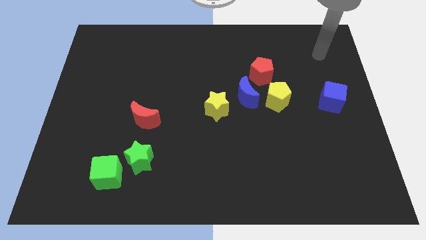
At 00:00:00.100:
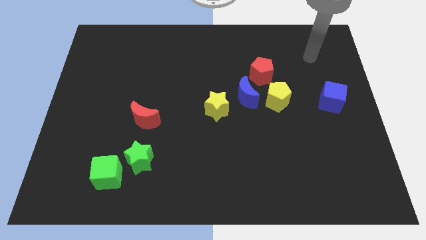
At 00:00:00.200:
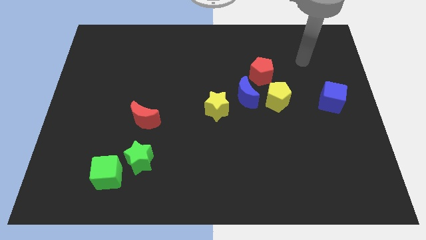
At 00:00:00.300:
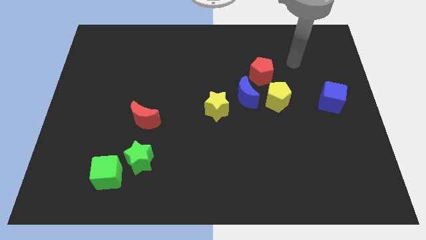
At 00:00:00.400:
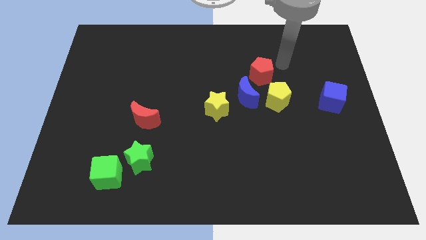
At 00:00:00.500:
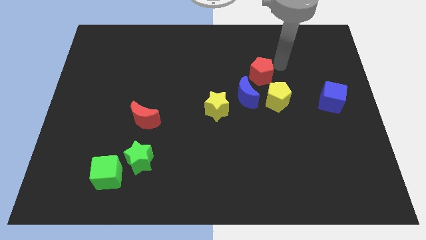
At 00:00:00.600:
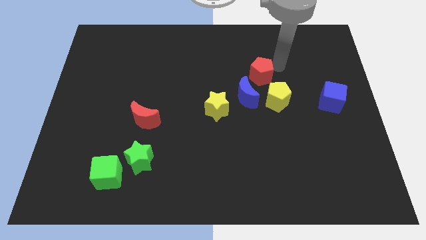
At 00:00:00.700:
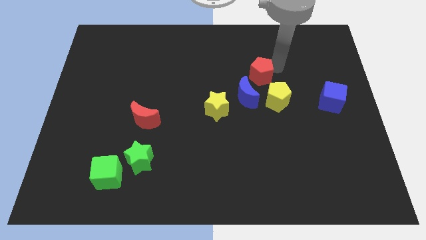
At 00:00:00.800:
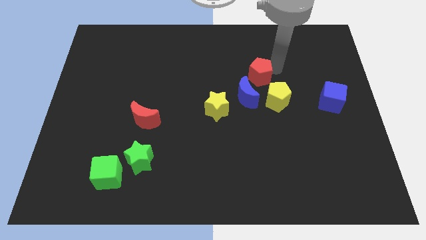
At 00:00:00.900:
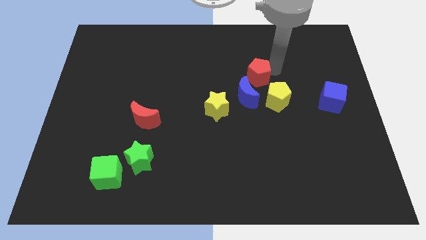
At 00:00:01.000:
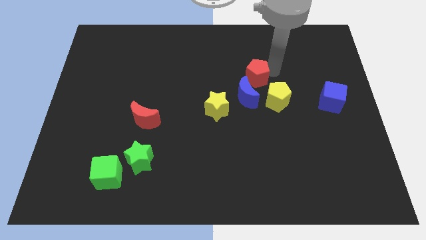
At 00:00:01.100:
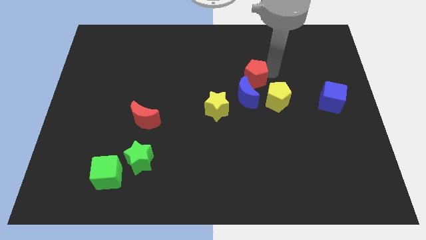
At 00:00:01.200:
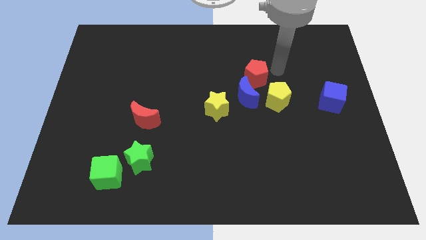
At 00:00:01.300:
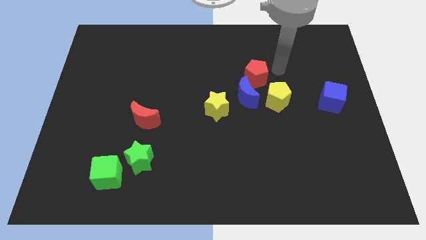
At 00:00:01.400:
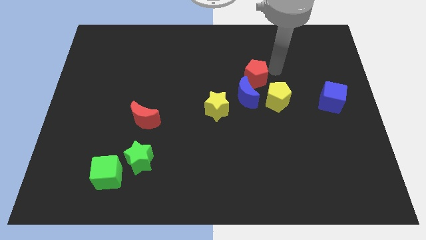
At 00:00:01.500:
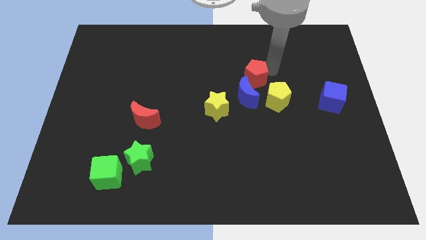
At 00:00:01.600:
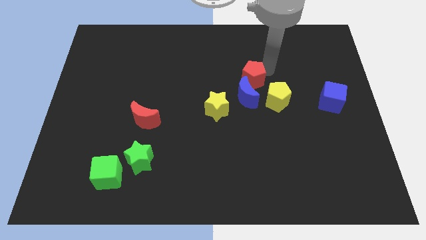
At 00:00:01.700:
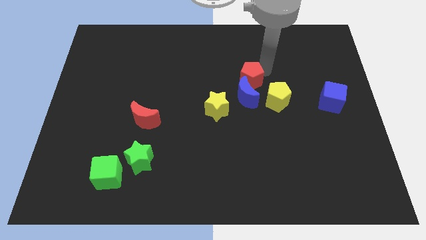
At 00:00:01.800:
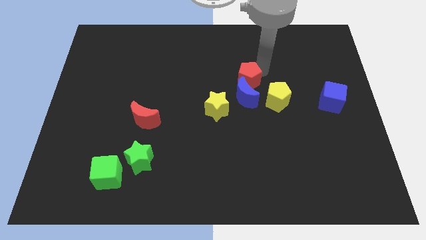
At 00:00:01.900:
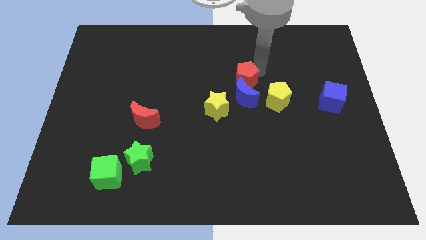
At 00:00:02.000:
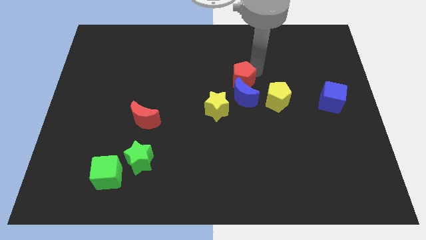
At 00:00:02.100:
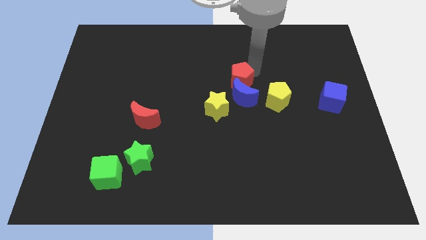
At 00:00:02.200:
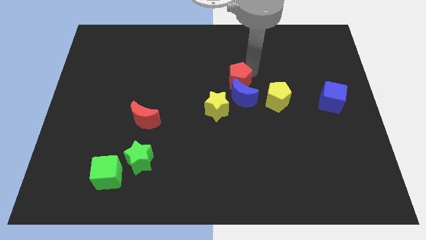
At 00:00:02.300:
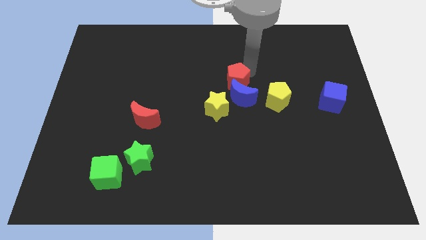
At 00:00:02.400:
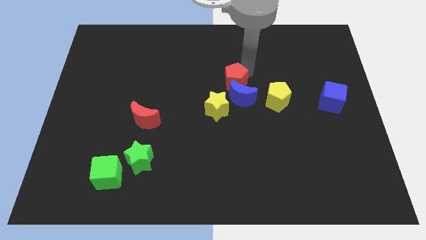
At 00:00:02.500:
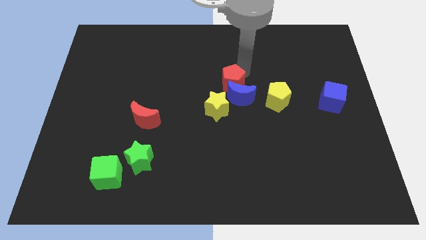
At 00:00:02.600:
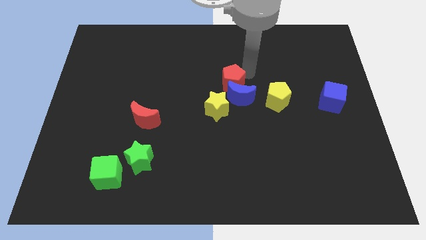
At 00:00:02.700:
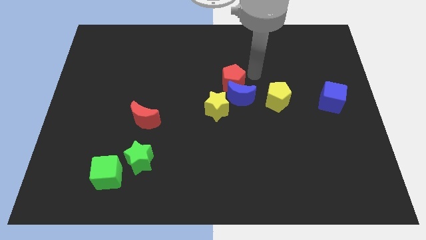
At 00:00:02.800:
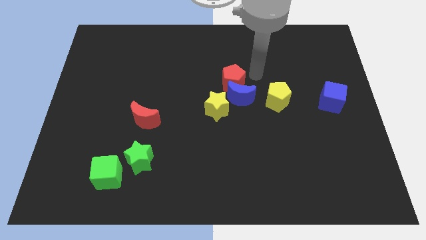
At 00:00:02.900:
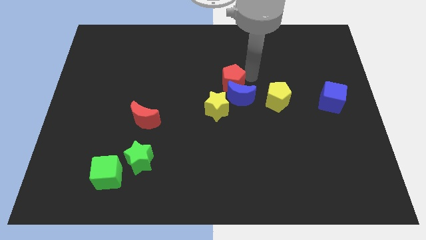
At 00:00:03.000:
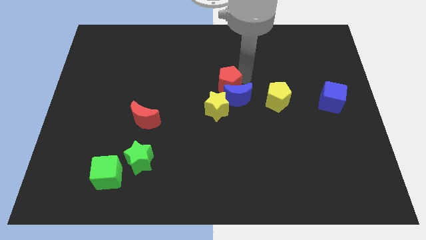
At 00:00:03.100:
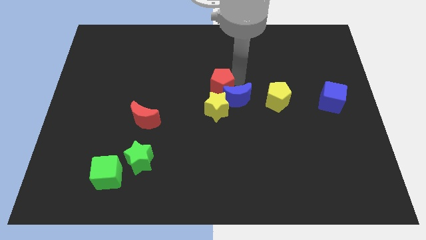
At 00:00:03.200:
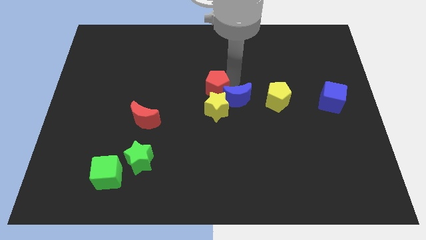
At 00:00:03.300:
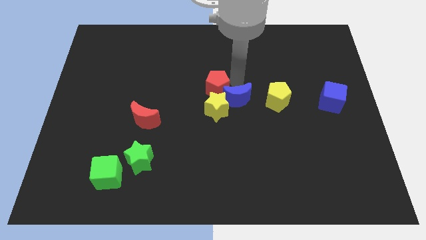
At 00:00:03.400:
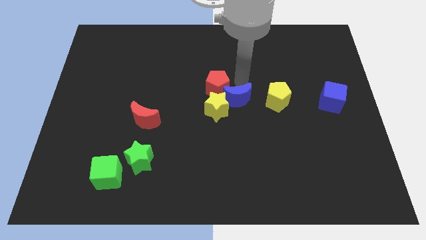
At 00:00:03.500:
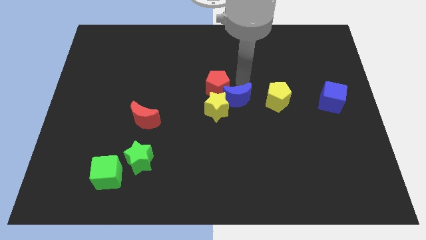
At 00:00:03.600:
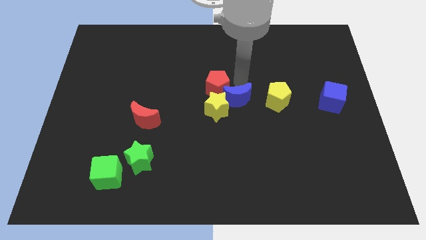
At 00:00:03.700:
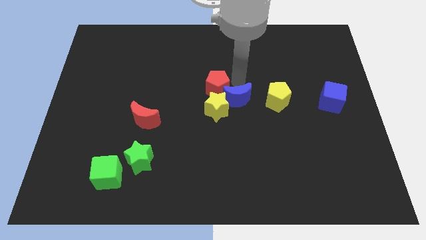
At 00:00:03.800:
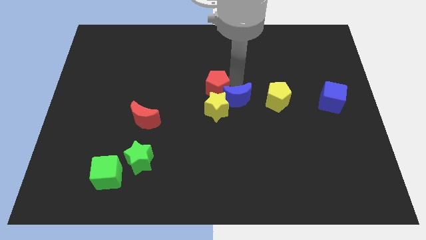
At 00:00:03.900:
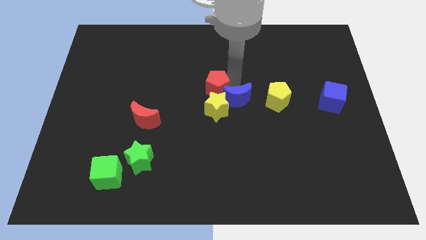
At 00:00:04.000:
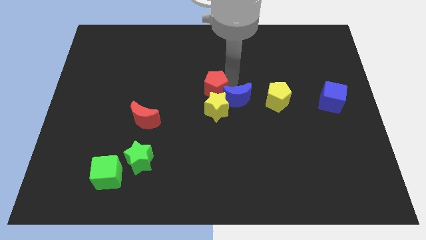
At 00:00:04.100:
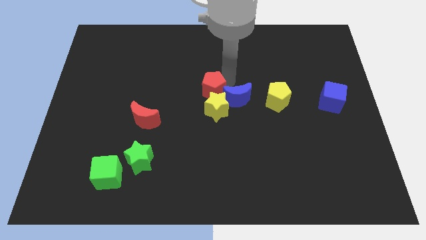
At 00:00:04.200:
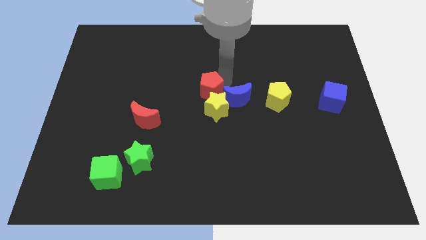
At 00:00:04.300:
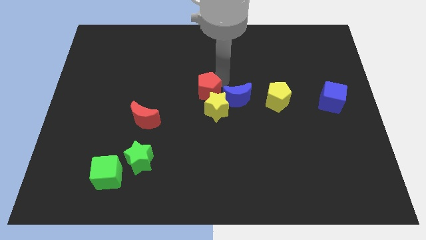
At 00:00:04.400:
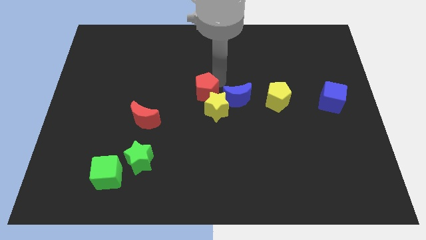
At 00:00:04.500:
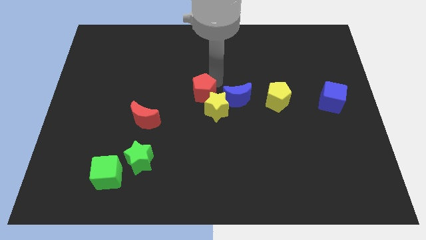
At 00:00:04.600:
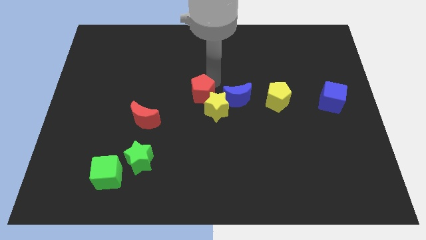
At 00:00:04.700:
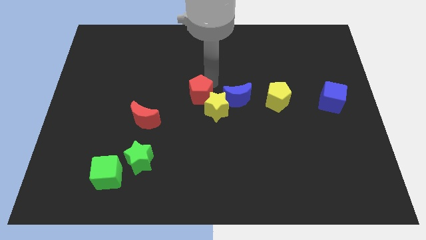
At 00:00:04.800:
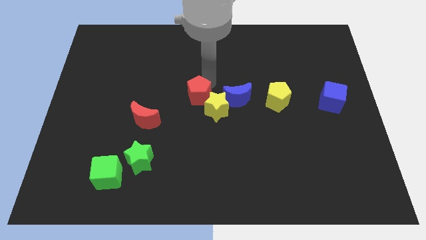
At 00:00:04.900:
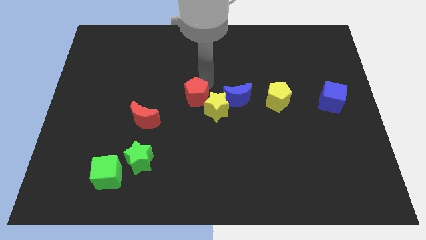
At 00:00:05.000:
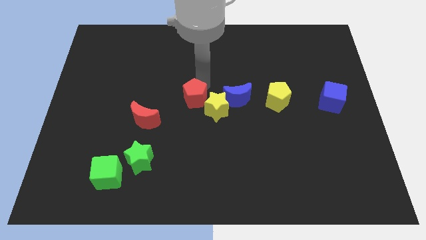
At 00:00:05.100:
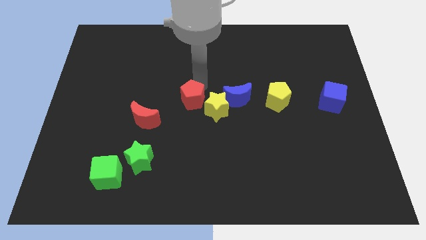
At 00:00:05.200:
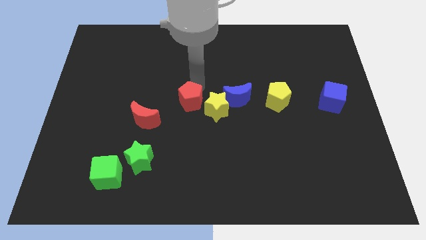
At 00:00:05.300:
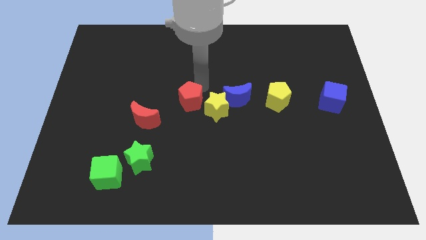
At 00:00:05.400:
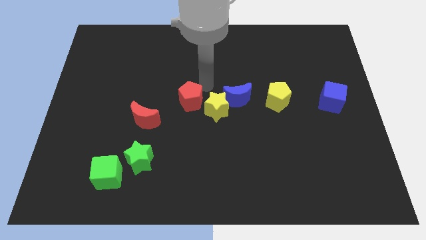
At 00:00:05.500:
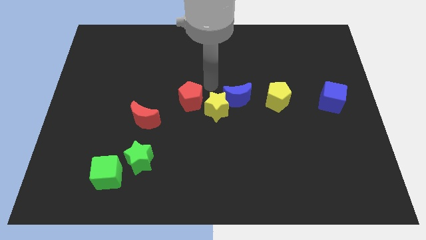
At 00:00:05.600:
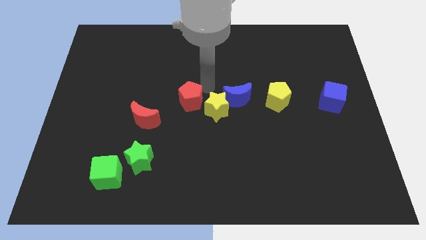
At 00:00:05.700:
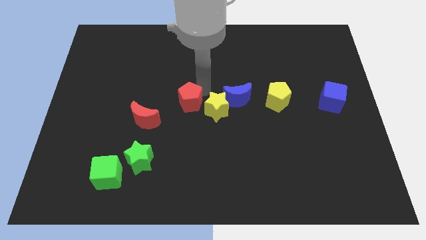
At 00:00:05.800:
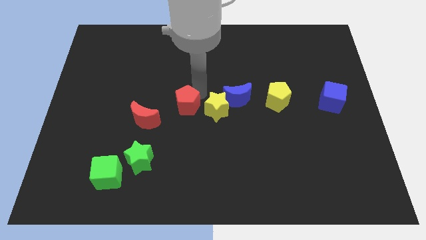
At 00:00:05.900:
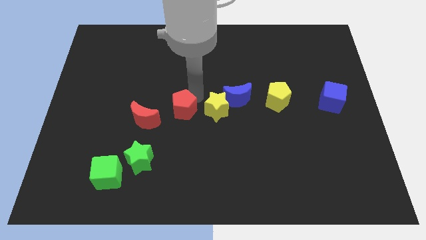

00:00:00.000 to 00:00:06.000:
move the red pentagon downwards and left diagonally

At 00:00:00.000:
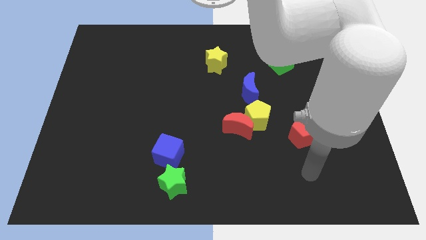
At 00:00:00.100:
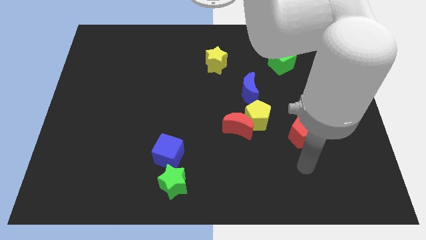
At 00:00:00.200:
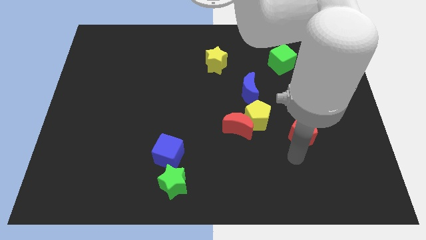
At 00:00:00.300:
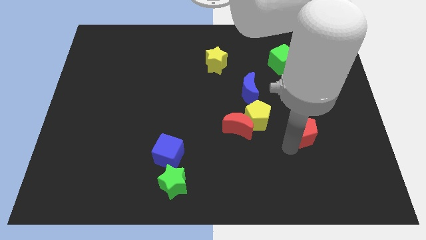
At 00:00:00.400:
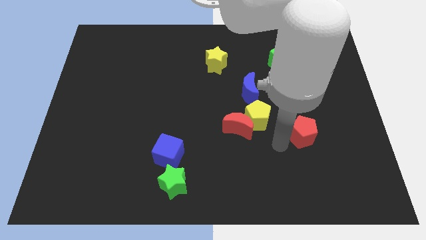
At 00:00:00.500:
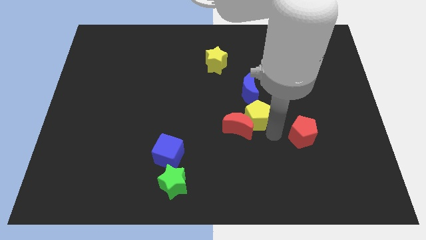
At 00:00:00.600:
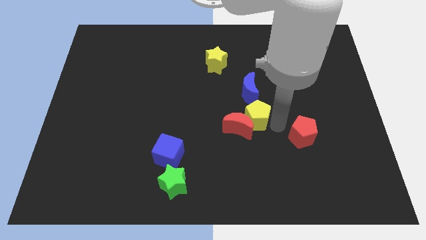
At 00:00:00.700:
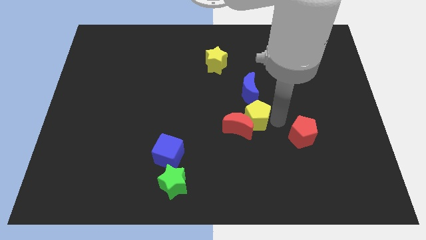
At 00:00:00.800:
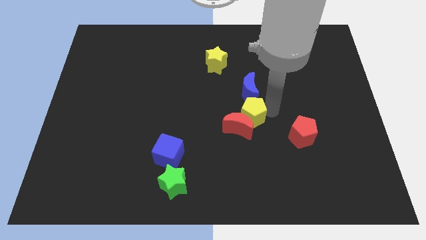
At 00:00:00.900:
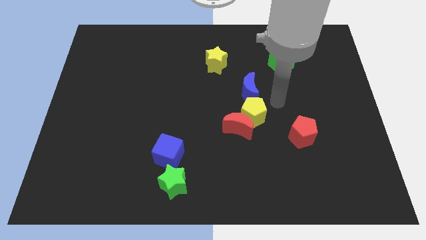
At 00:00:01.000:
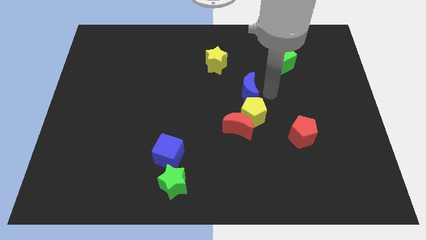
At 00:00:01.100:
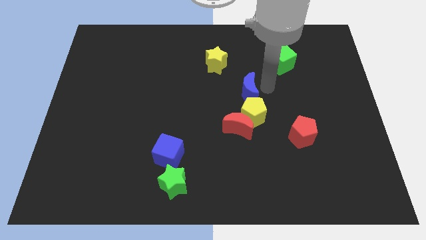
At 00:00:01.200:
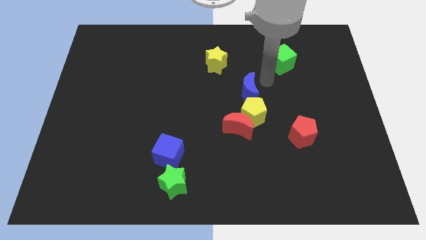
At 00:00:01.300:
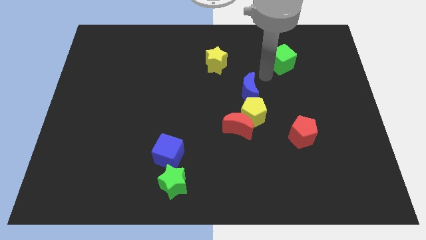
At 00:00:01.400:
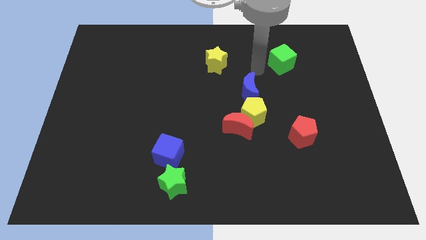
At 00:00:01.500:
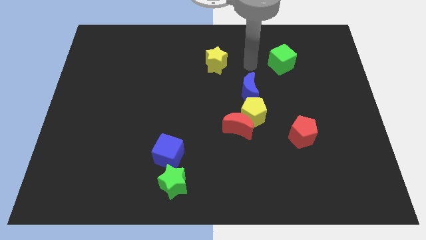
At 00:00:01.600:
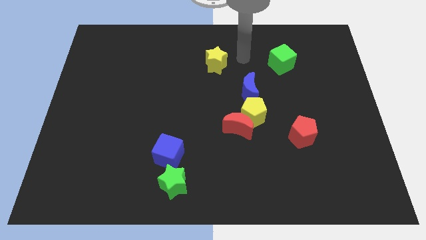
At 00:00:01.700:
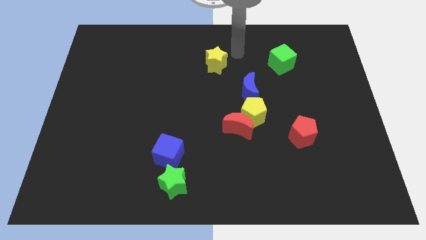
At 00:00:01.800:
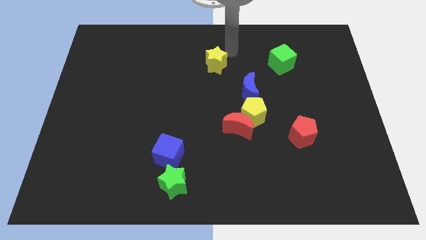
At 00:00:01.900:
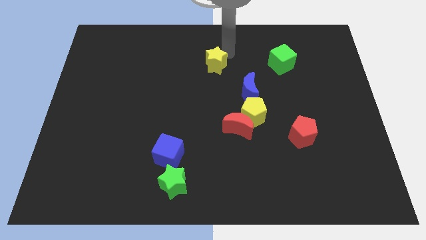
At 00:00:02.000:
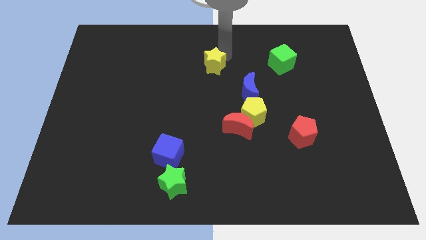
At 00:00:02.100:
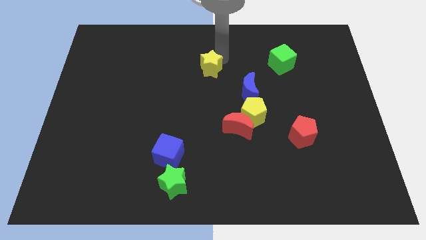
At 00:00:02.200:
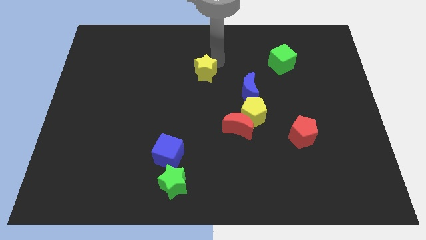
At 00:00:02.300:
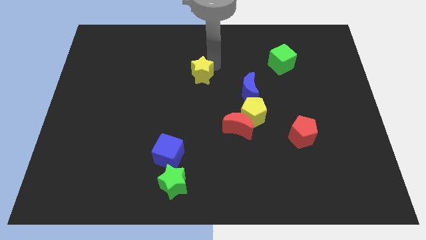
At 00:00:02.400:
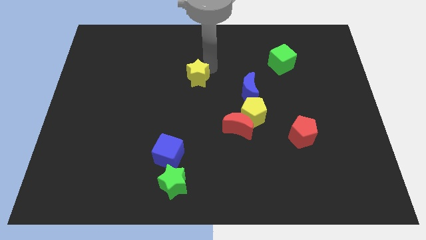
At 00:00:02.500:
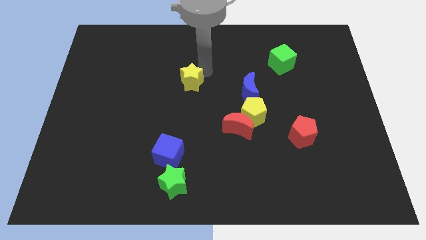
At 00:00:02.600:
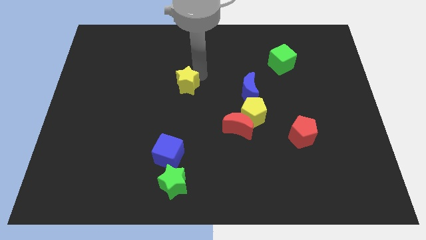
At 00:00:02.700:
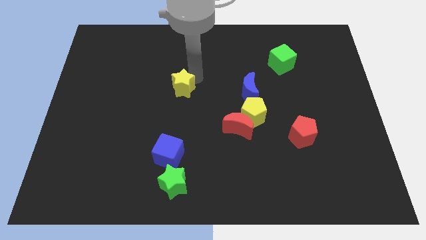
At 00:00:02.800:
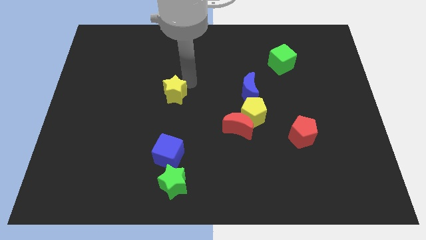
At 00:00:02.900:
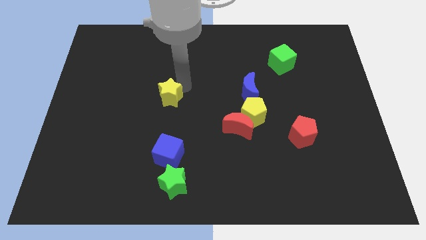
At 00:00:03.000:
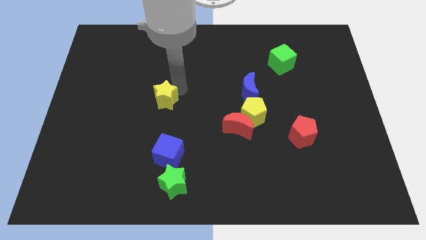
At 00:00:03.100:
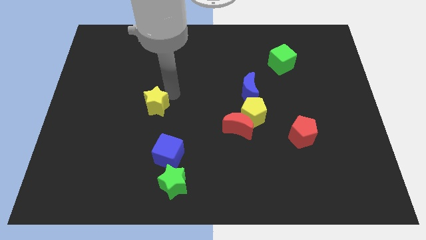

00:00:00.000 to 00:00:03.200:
move the yellow star downwards and left diagonally
